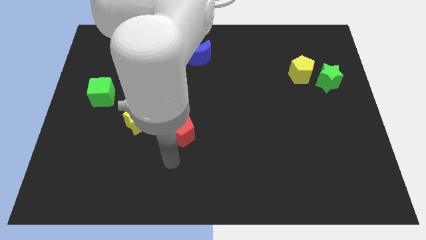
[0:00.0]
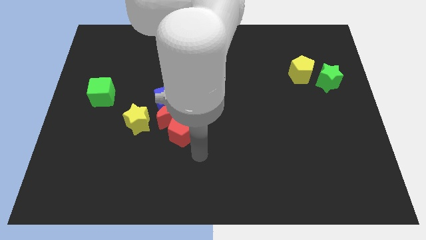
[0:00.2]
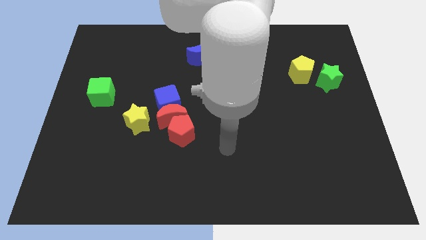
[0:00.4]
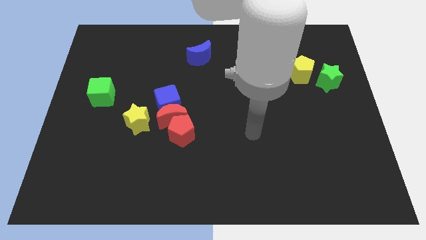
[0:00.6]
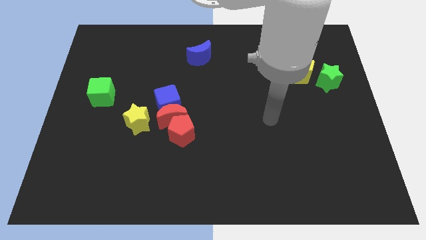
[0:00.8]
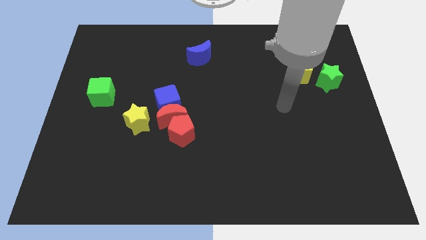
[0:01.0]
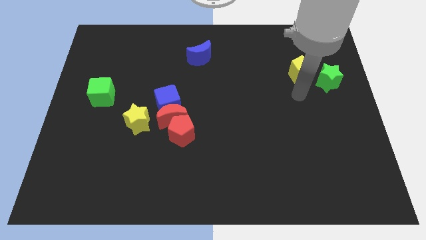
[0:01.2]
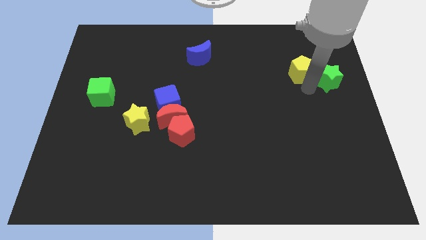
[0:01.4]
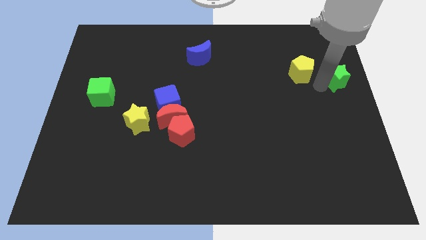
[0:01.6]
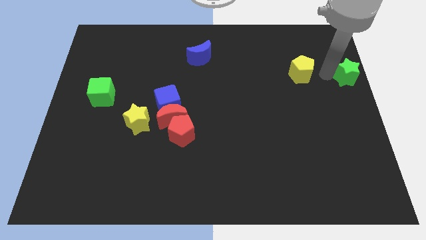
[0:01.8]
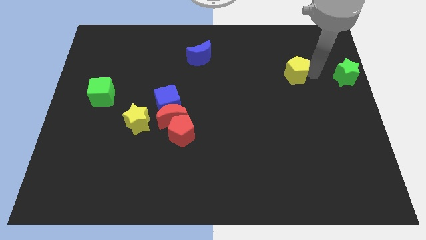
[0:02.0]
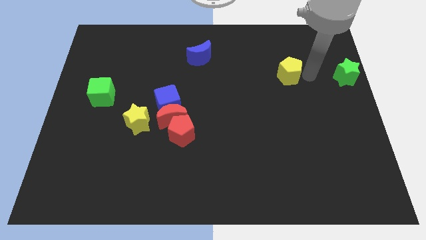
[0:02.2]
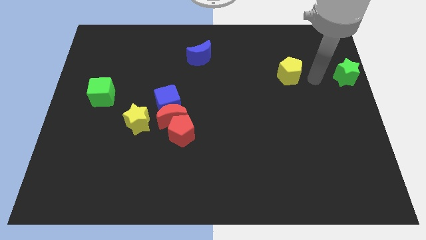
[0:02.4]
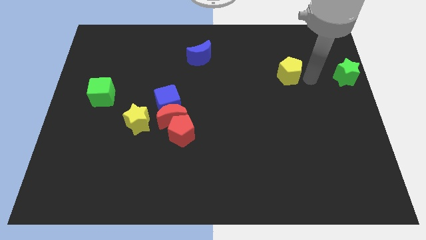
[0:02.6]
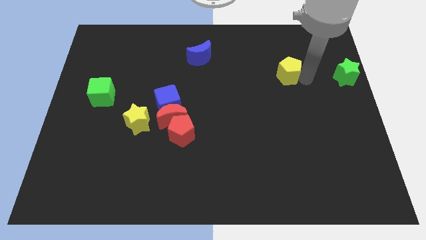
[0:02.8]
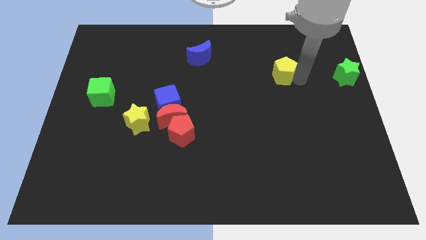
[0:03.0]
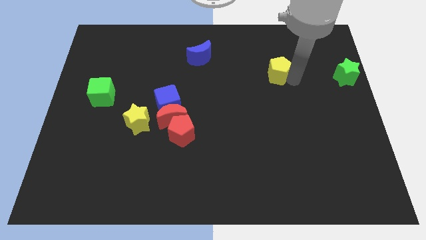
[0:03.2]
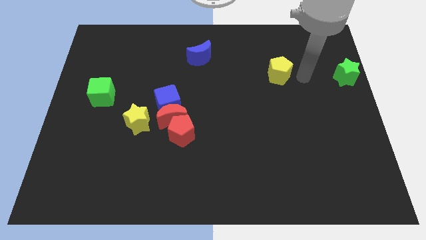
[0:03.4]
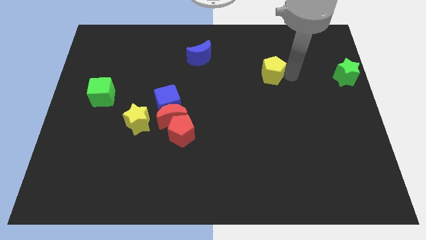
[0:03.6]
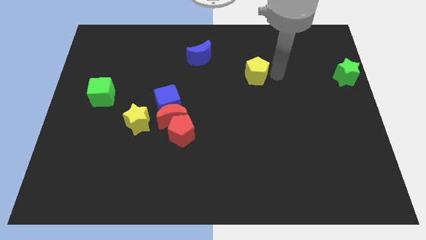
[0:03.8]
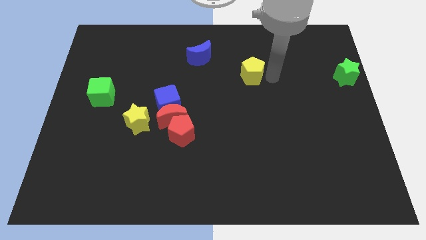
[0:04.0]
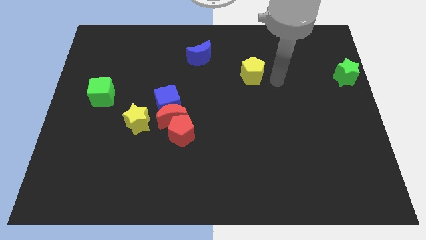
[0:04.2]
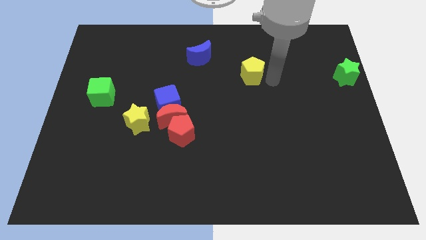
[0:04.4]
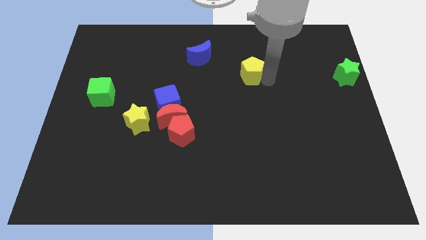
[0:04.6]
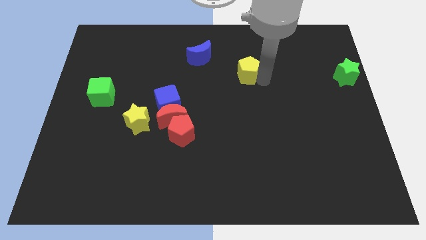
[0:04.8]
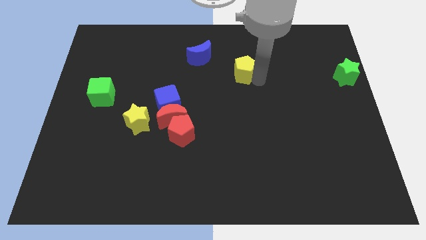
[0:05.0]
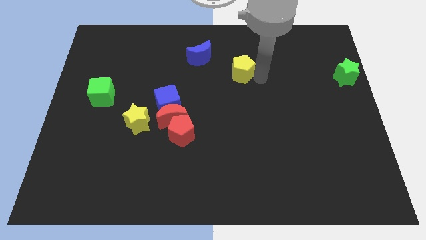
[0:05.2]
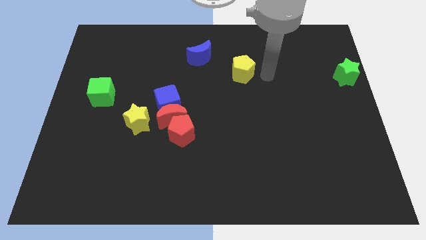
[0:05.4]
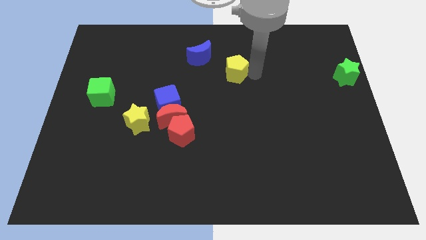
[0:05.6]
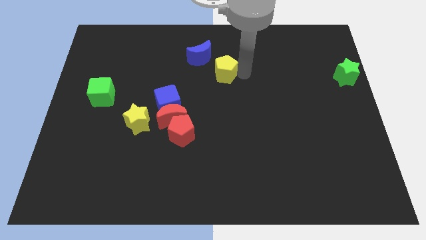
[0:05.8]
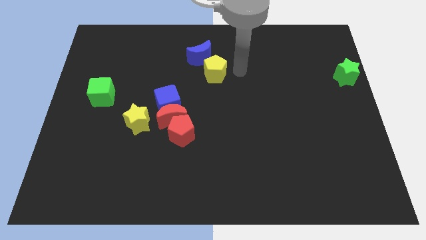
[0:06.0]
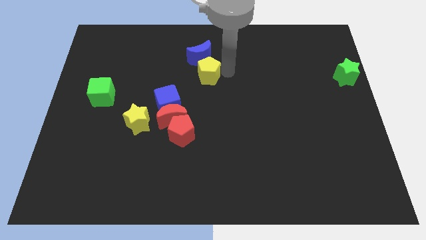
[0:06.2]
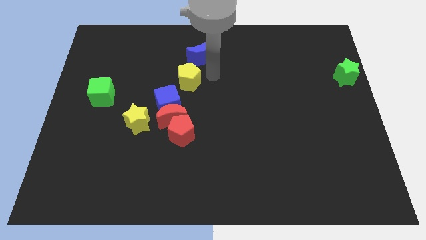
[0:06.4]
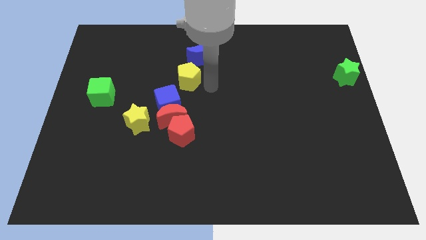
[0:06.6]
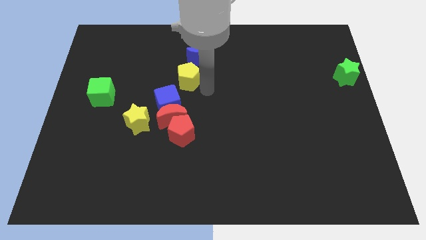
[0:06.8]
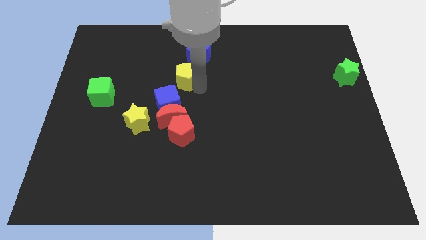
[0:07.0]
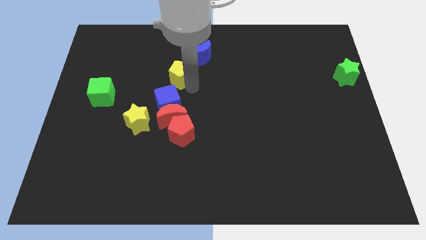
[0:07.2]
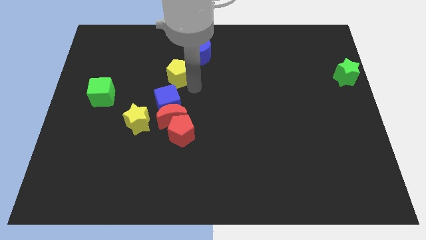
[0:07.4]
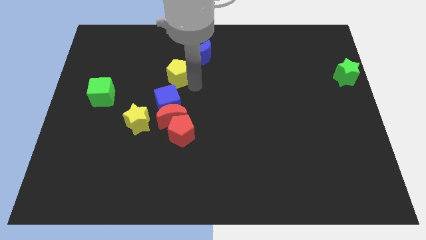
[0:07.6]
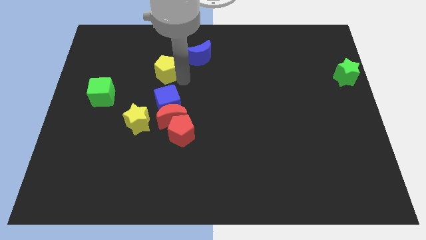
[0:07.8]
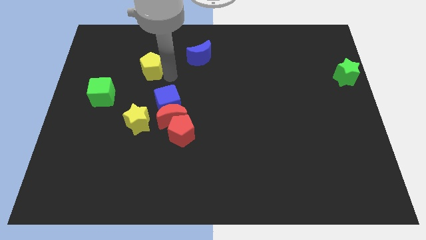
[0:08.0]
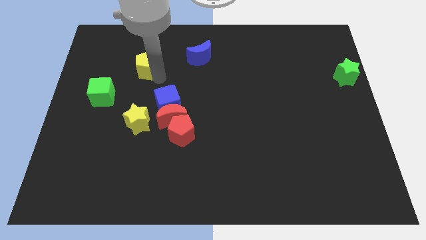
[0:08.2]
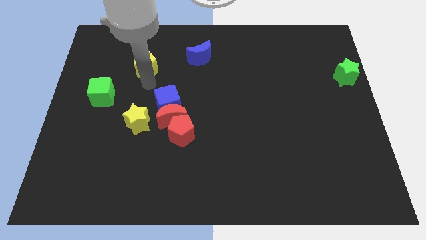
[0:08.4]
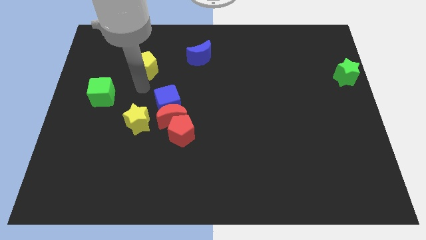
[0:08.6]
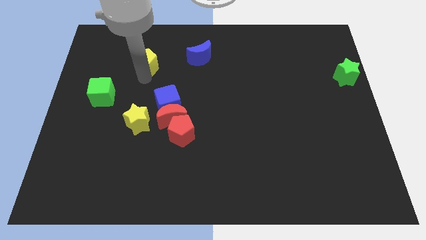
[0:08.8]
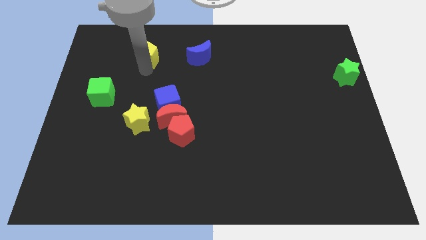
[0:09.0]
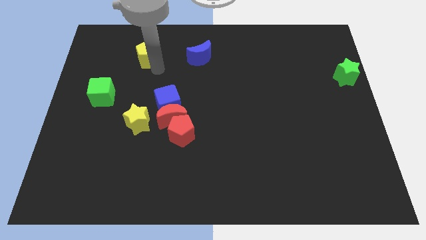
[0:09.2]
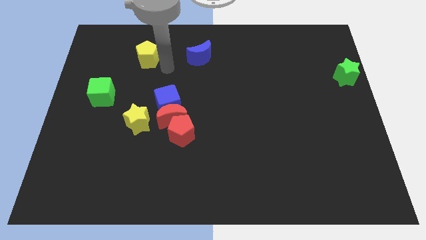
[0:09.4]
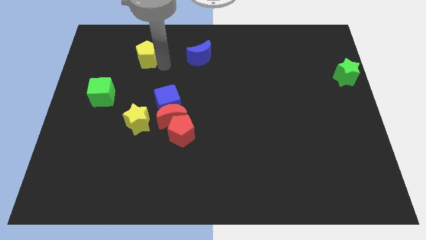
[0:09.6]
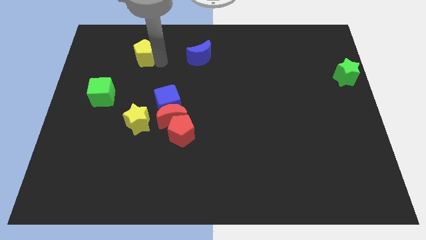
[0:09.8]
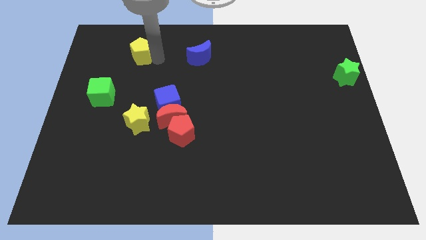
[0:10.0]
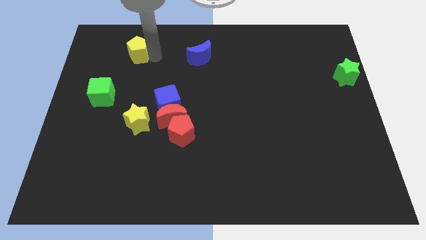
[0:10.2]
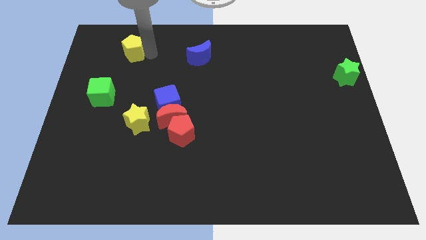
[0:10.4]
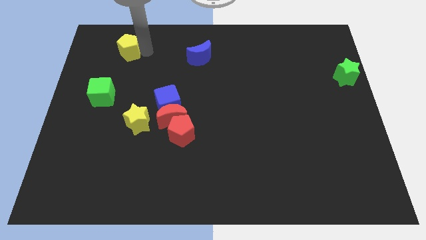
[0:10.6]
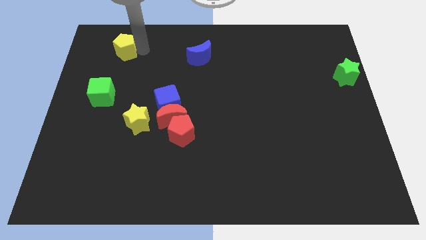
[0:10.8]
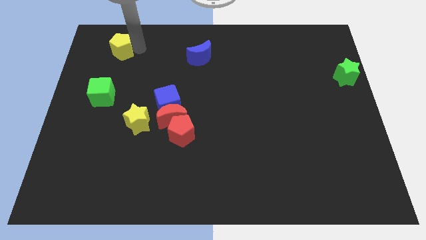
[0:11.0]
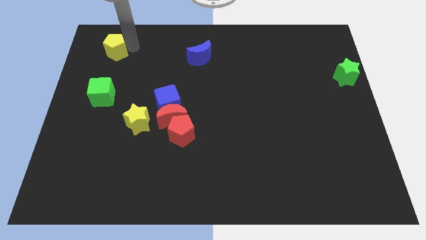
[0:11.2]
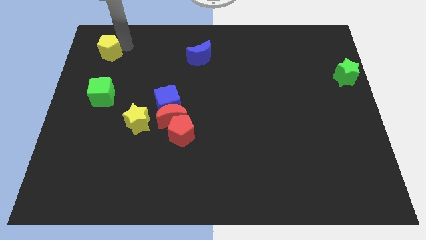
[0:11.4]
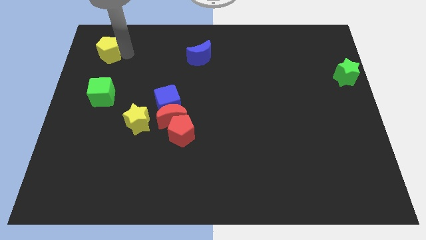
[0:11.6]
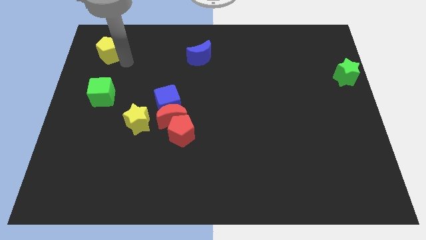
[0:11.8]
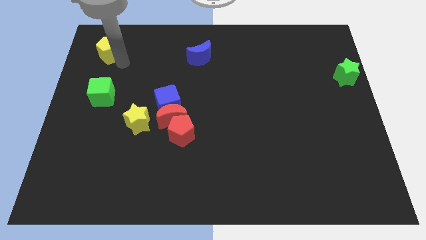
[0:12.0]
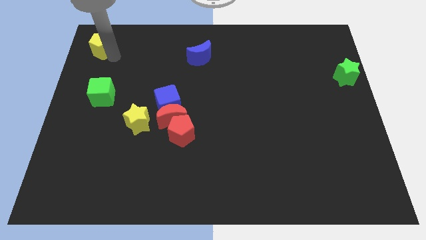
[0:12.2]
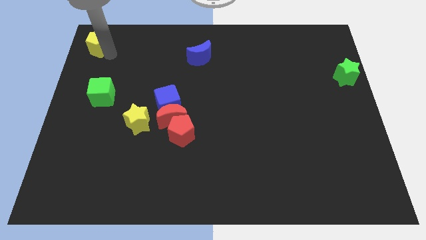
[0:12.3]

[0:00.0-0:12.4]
slide the yellow pentagon to the upper left corner
